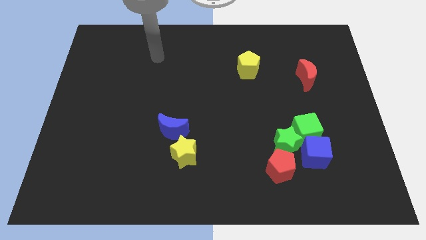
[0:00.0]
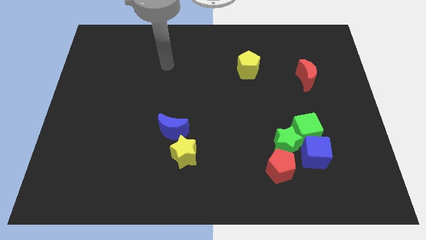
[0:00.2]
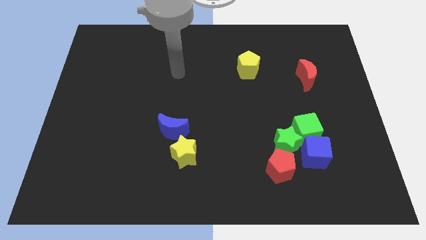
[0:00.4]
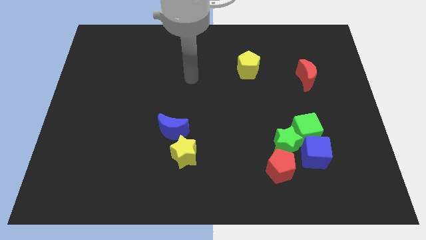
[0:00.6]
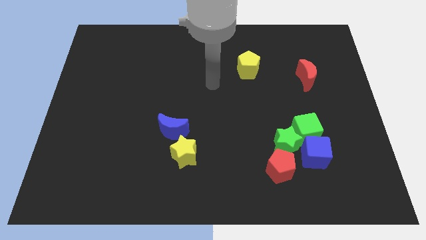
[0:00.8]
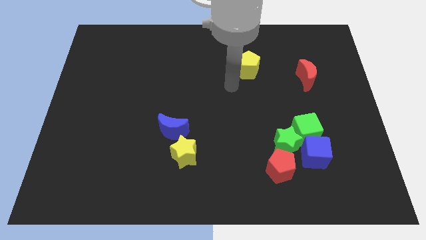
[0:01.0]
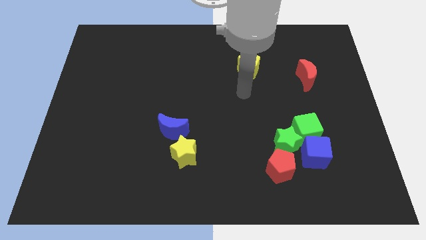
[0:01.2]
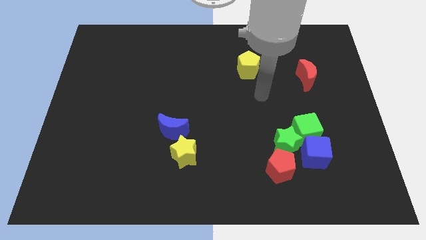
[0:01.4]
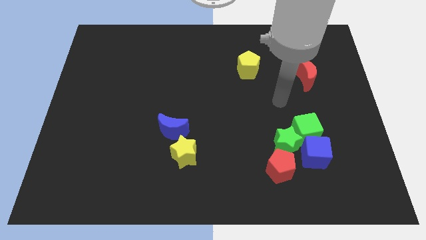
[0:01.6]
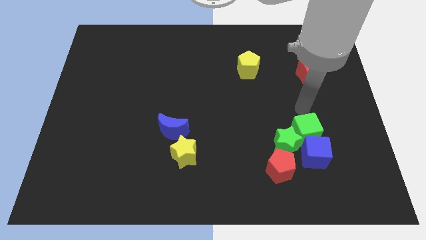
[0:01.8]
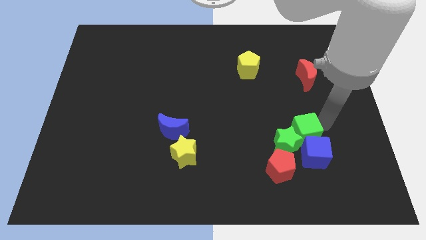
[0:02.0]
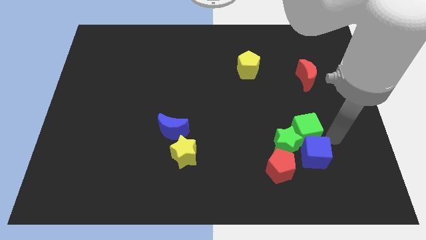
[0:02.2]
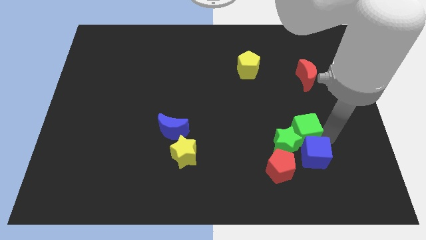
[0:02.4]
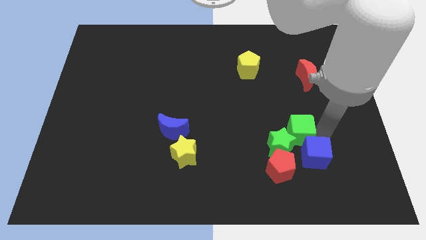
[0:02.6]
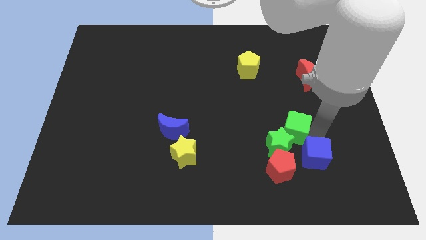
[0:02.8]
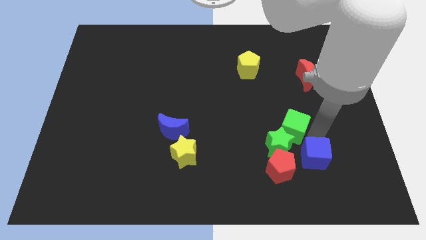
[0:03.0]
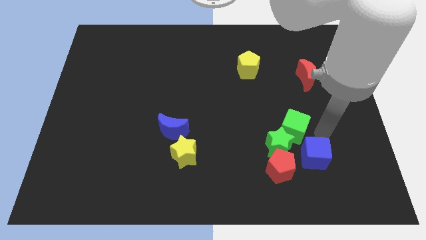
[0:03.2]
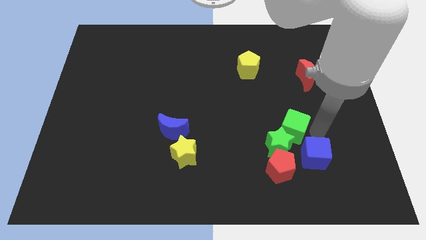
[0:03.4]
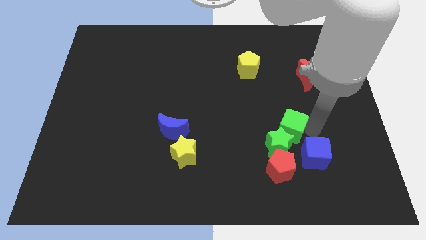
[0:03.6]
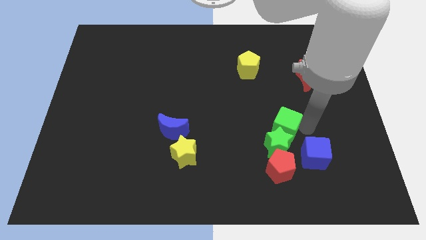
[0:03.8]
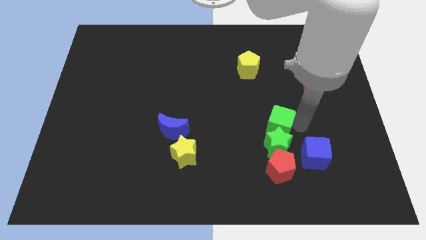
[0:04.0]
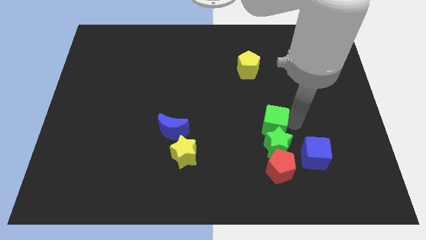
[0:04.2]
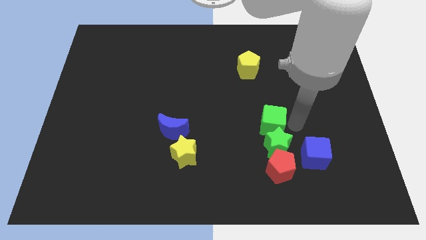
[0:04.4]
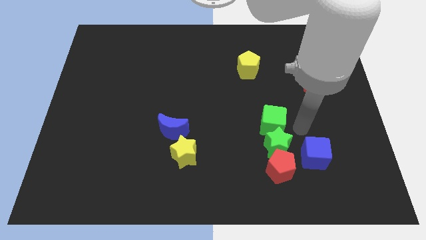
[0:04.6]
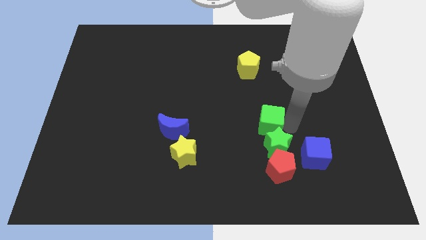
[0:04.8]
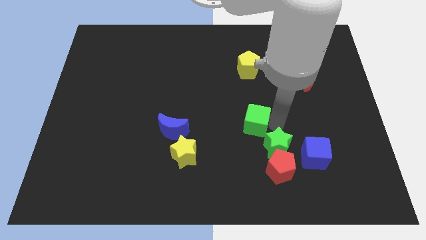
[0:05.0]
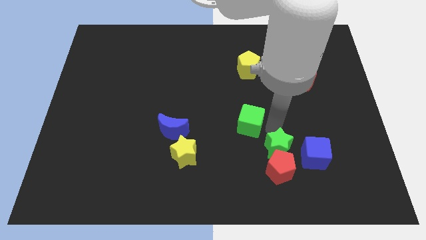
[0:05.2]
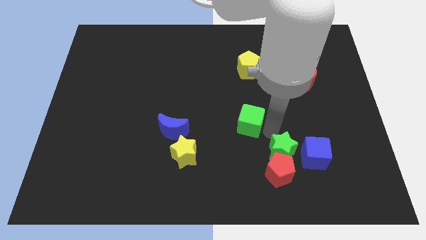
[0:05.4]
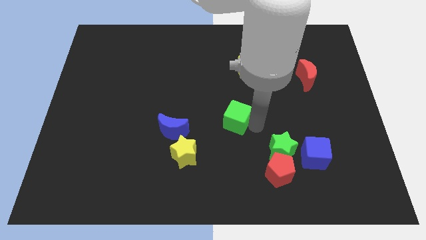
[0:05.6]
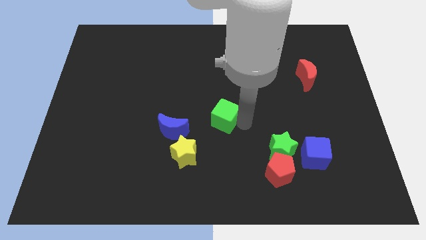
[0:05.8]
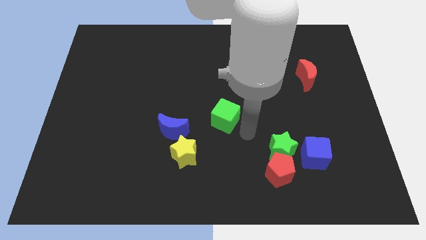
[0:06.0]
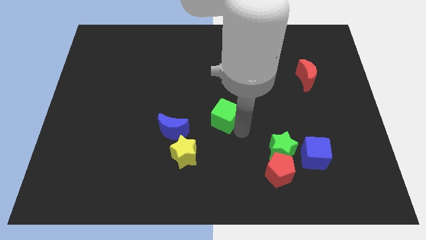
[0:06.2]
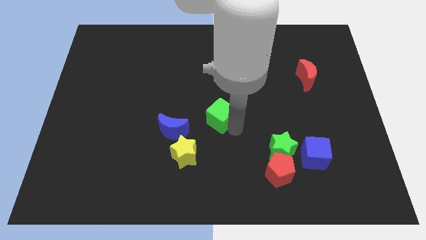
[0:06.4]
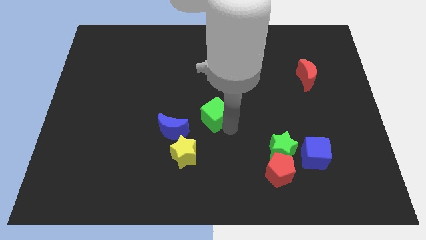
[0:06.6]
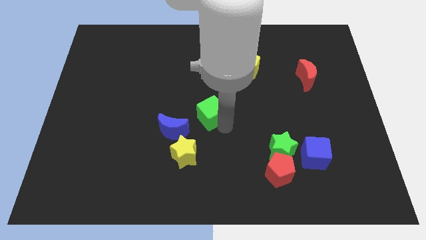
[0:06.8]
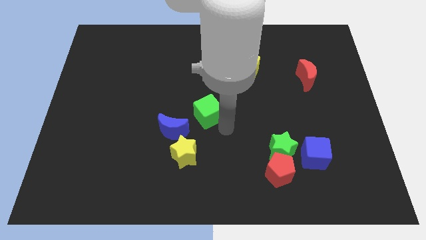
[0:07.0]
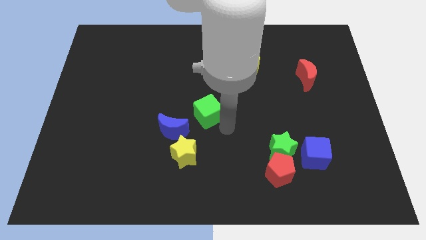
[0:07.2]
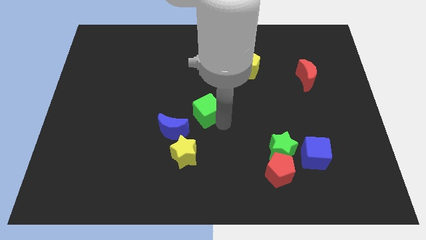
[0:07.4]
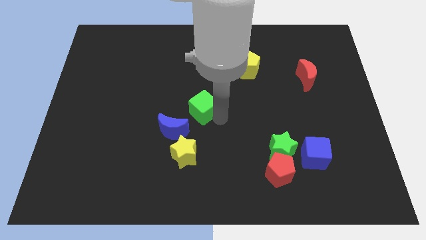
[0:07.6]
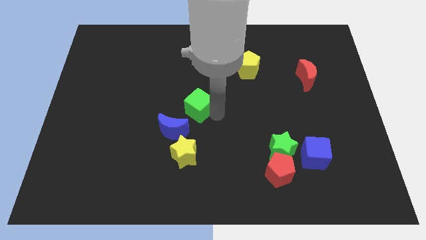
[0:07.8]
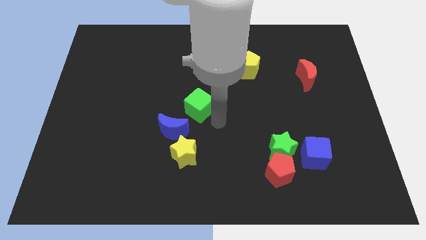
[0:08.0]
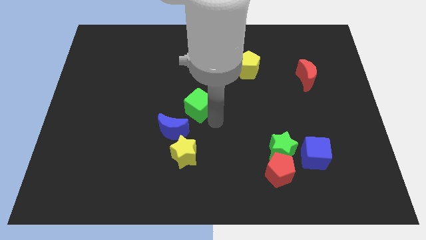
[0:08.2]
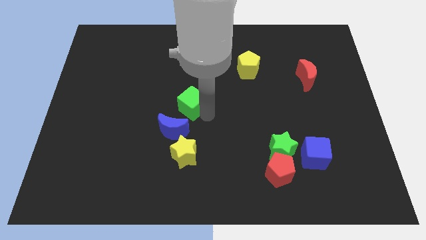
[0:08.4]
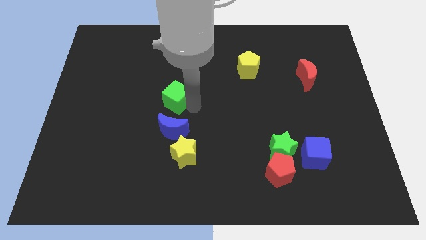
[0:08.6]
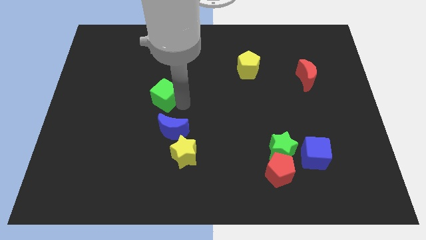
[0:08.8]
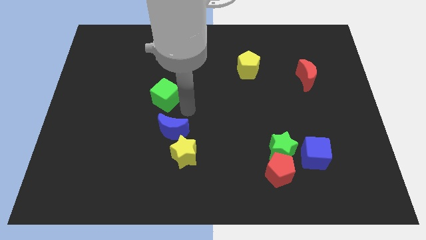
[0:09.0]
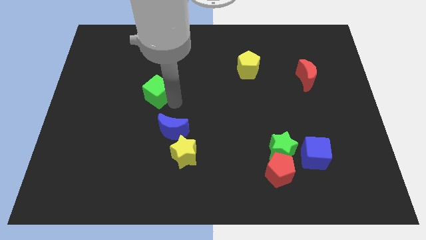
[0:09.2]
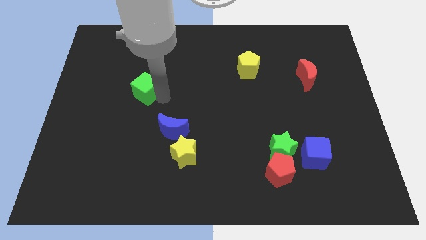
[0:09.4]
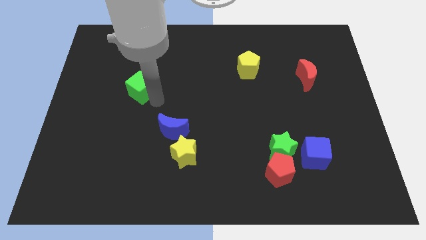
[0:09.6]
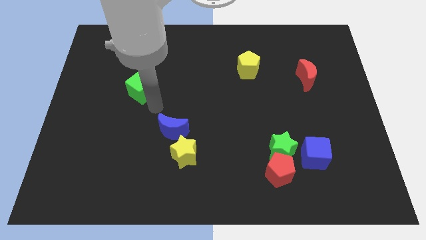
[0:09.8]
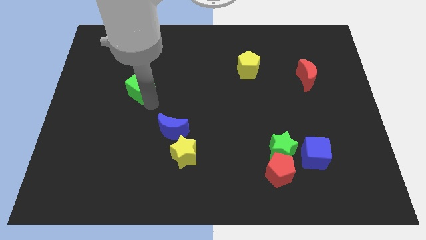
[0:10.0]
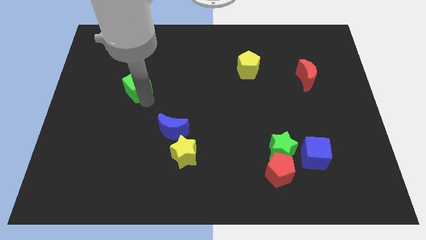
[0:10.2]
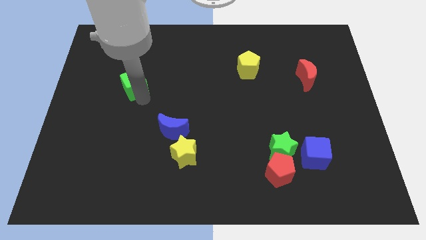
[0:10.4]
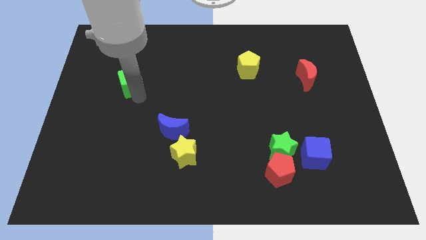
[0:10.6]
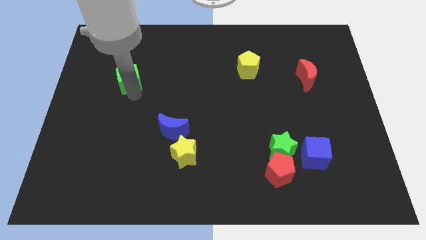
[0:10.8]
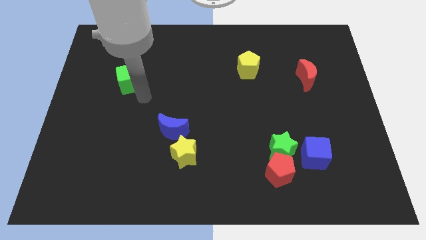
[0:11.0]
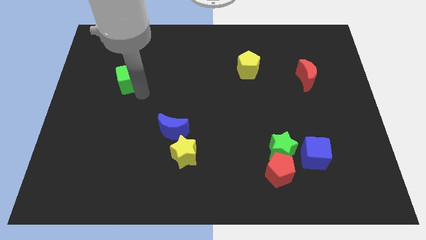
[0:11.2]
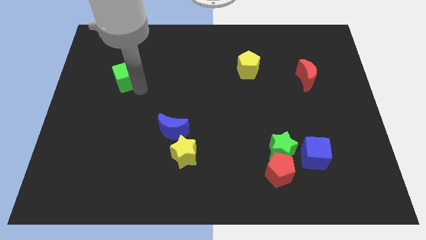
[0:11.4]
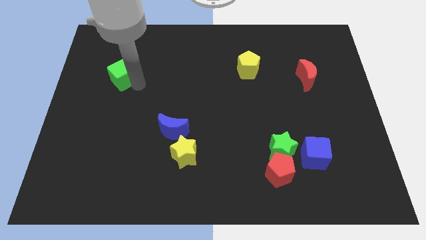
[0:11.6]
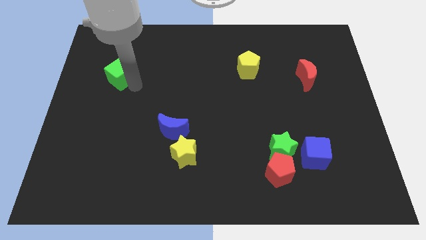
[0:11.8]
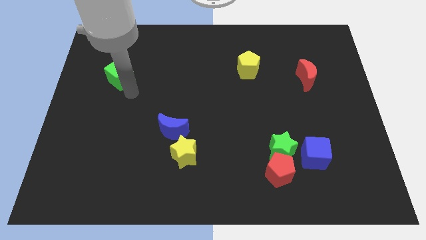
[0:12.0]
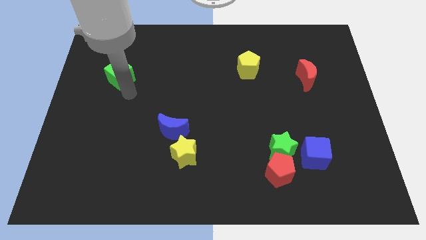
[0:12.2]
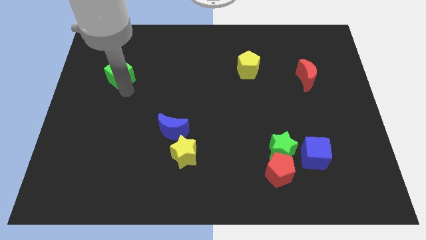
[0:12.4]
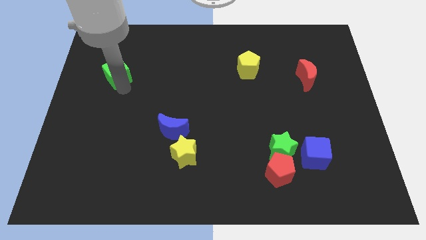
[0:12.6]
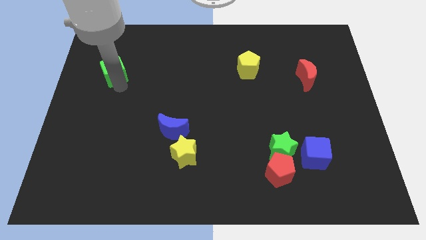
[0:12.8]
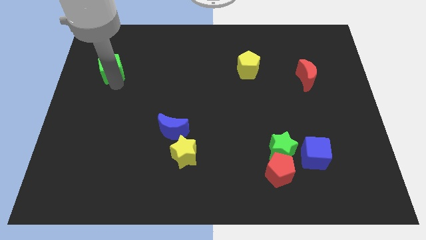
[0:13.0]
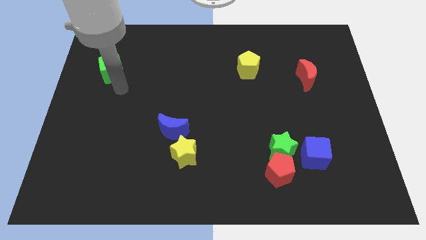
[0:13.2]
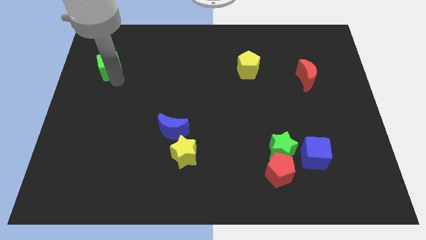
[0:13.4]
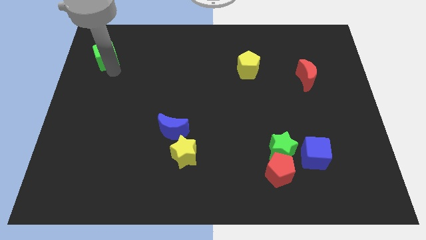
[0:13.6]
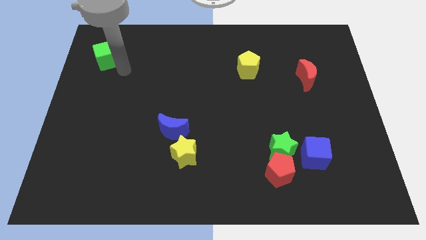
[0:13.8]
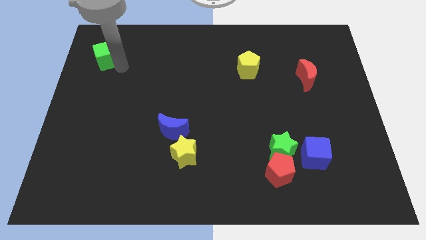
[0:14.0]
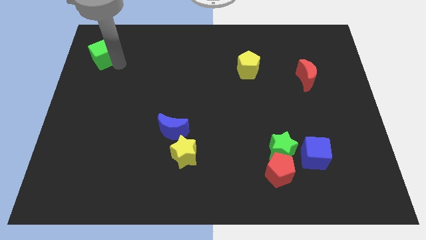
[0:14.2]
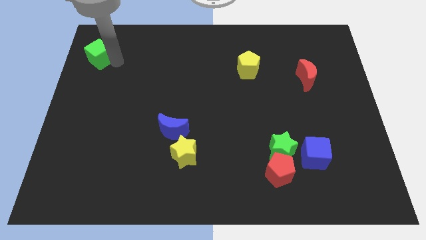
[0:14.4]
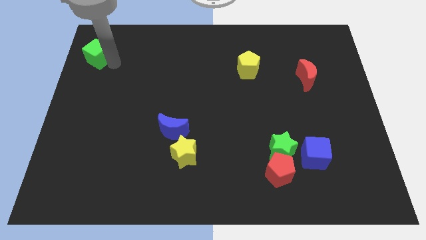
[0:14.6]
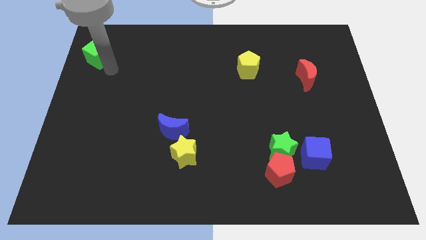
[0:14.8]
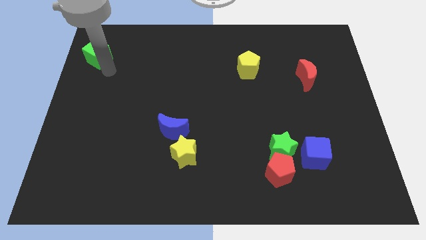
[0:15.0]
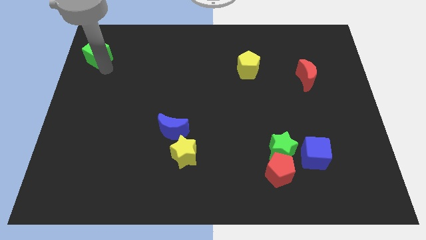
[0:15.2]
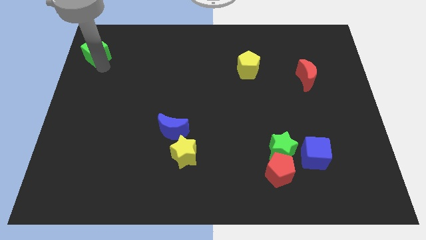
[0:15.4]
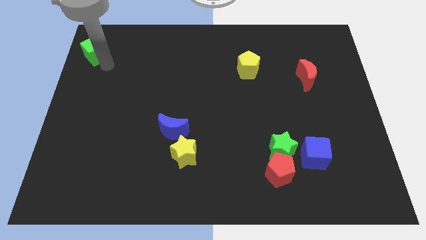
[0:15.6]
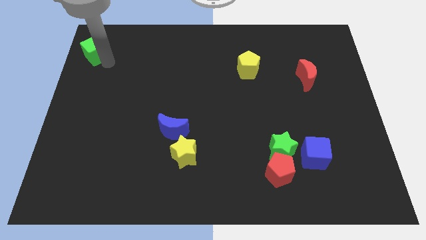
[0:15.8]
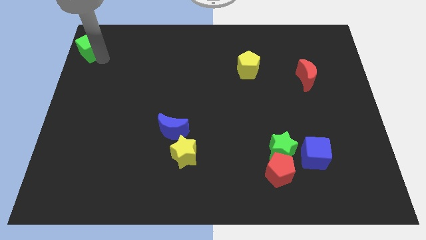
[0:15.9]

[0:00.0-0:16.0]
put the green cube to the top left corner
